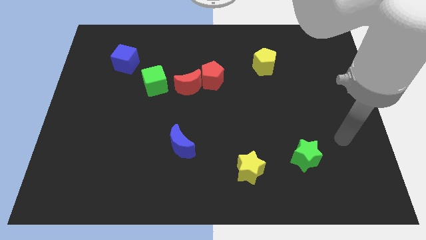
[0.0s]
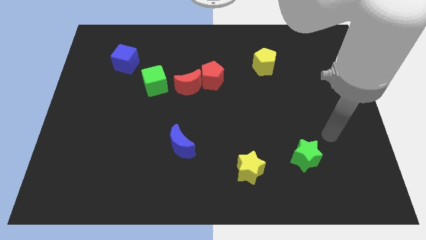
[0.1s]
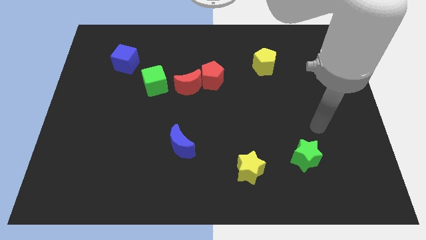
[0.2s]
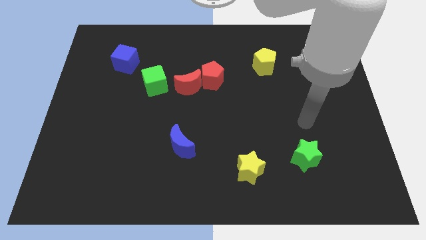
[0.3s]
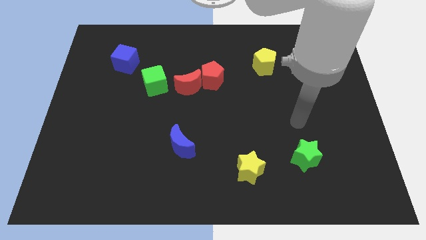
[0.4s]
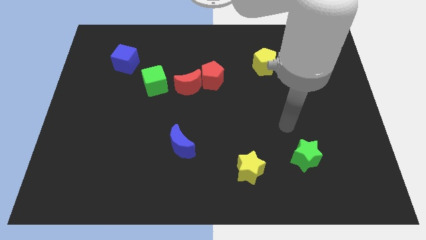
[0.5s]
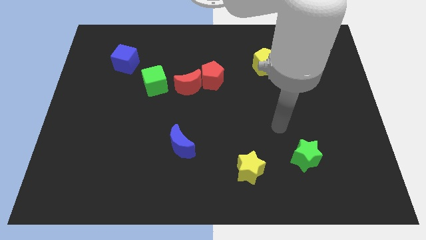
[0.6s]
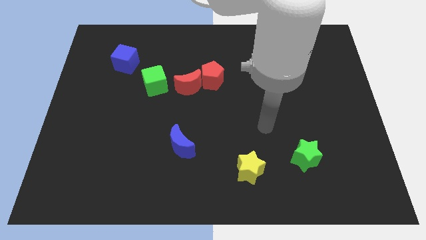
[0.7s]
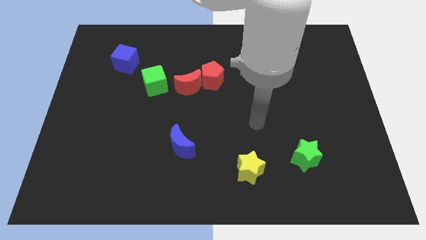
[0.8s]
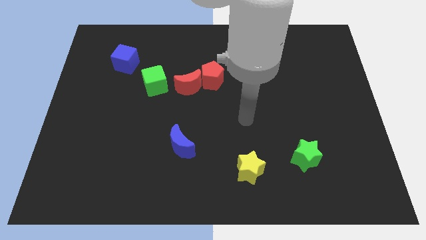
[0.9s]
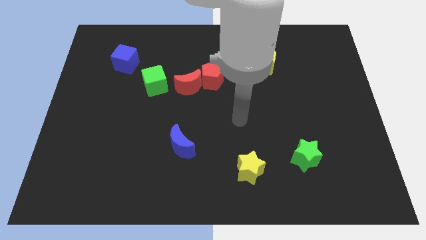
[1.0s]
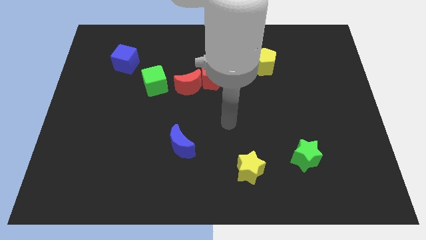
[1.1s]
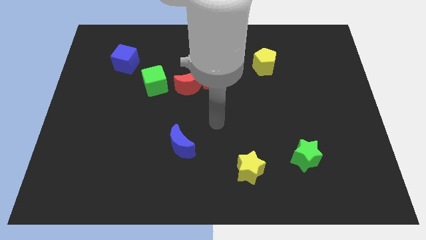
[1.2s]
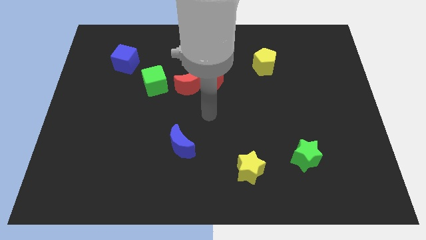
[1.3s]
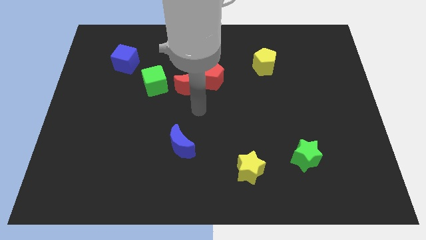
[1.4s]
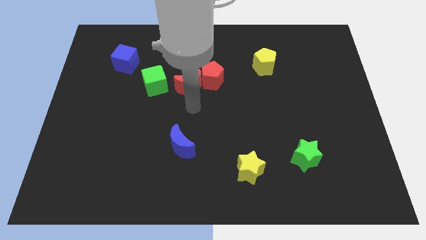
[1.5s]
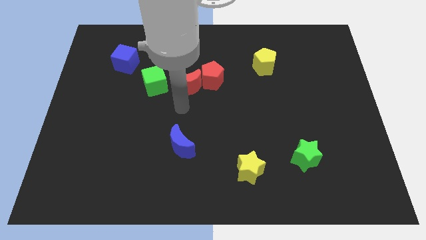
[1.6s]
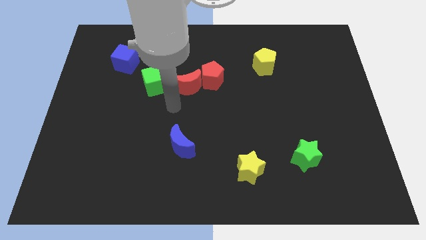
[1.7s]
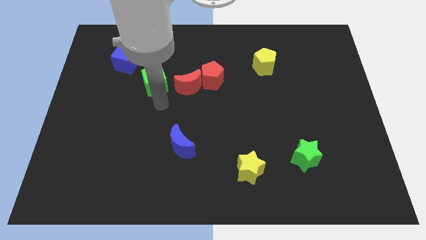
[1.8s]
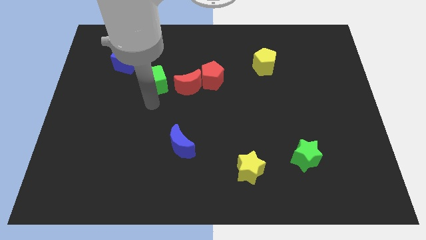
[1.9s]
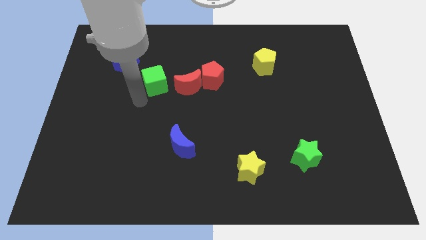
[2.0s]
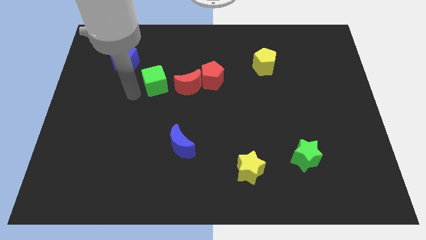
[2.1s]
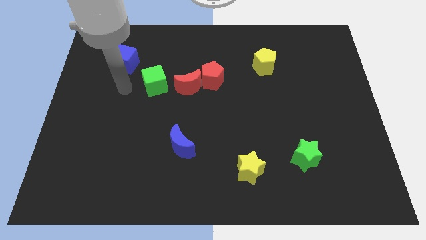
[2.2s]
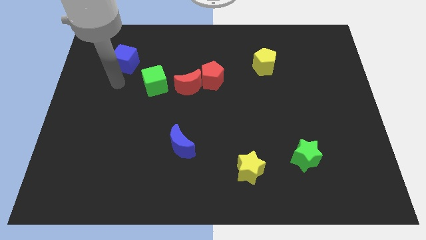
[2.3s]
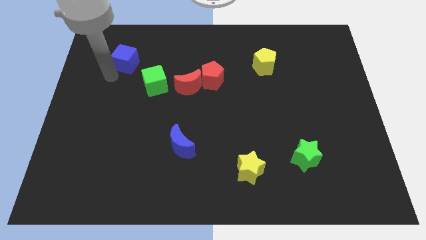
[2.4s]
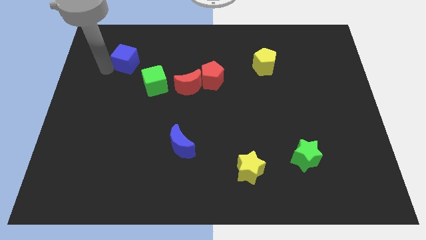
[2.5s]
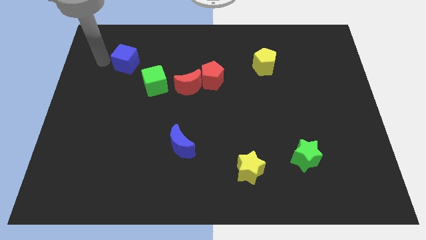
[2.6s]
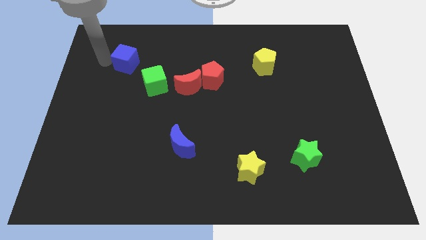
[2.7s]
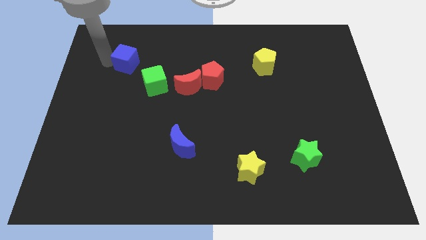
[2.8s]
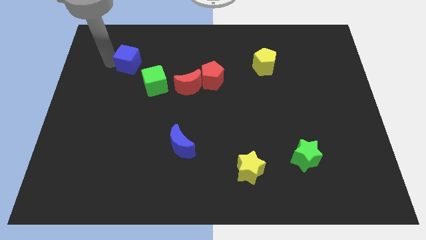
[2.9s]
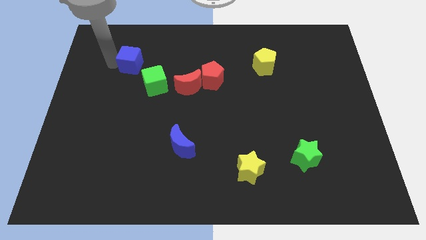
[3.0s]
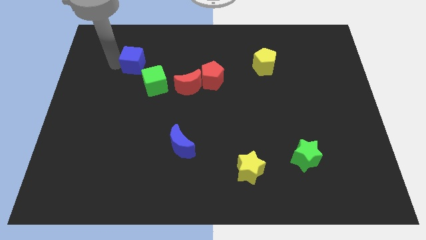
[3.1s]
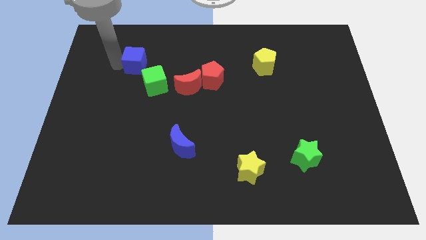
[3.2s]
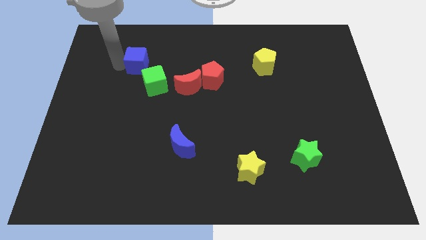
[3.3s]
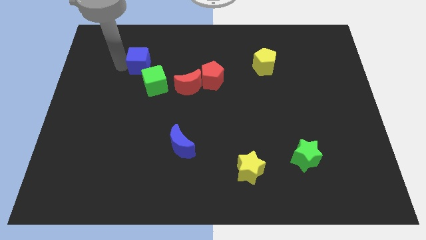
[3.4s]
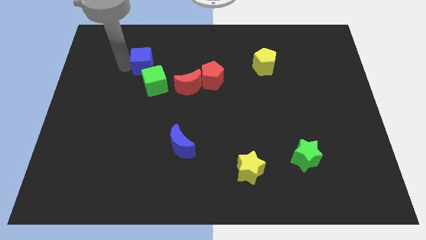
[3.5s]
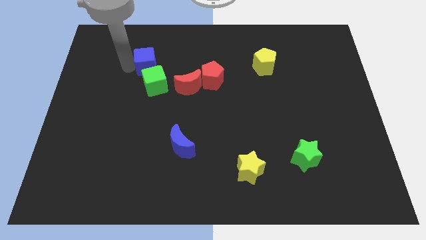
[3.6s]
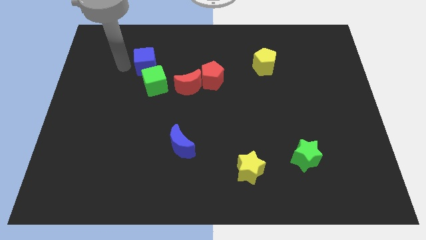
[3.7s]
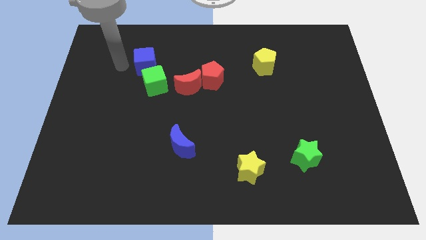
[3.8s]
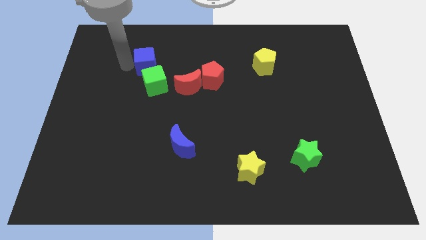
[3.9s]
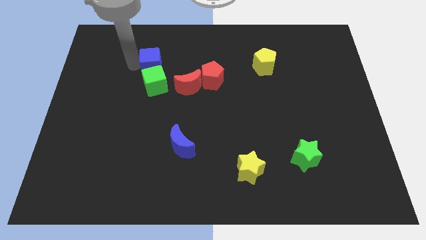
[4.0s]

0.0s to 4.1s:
slightly move the blue cube right

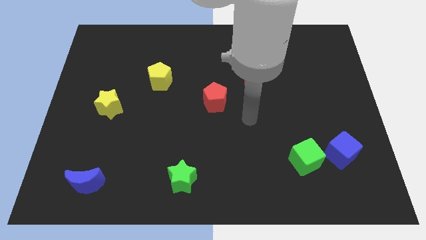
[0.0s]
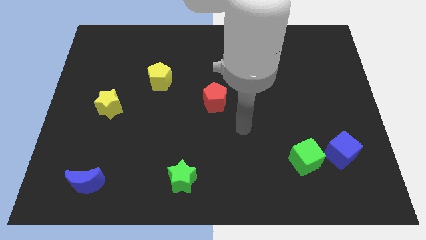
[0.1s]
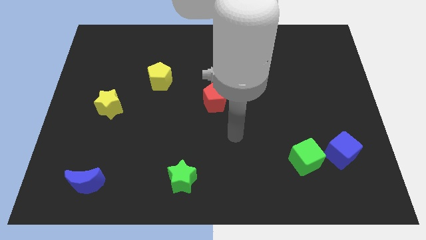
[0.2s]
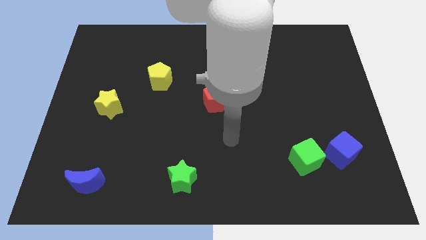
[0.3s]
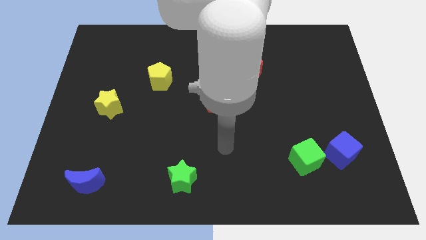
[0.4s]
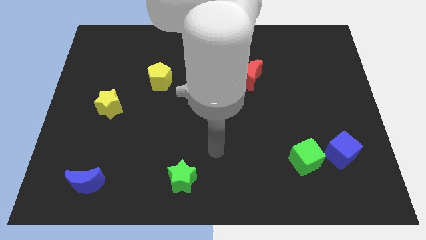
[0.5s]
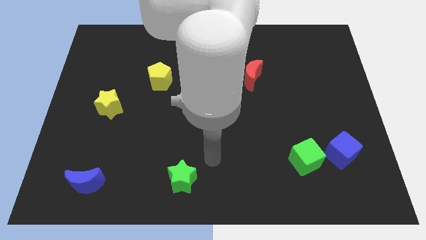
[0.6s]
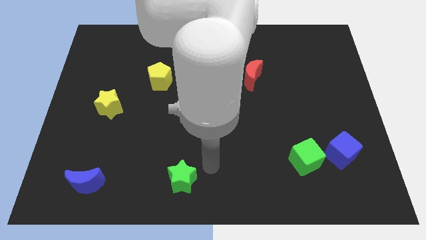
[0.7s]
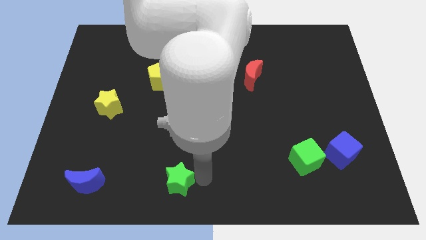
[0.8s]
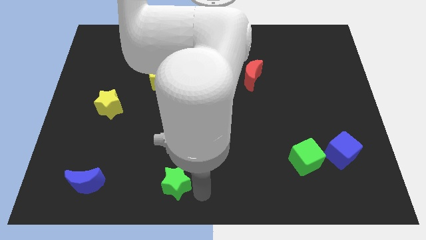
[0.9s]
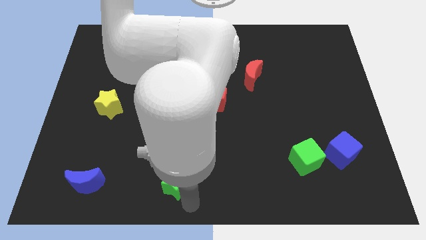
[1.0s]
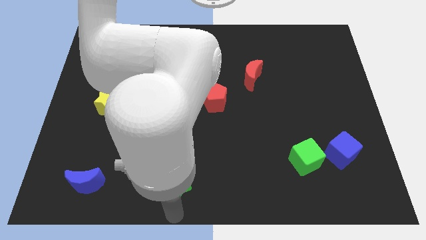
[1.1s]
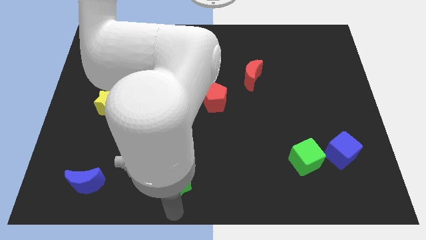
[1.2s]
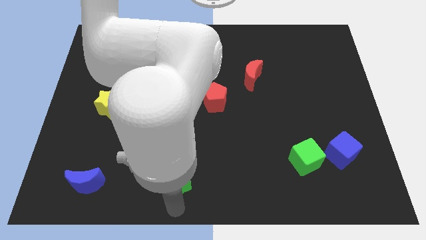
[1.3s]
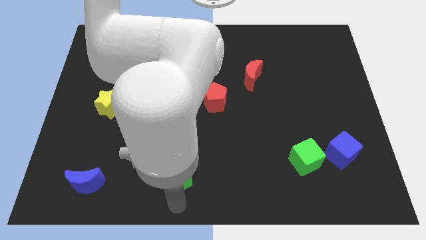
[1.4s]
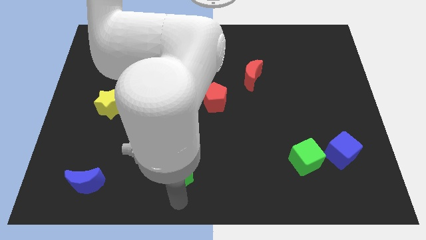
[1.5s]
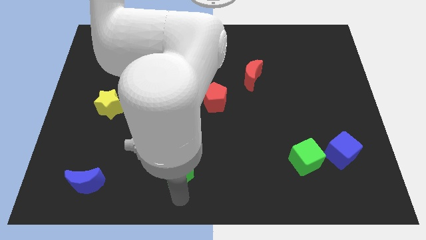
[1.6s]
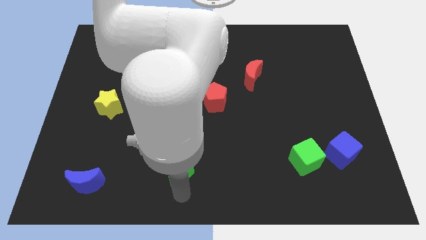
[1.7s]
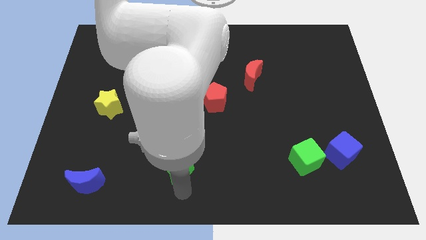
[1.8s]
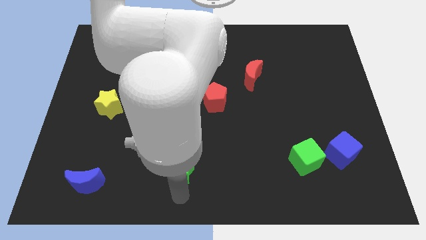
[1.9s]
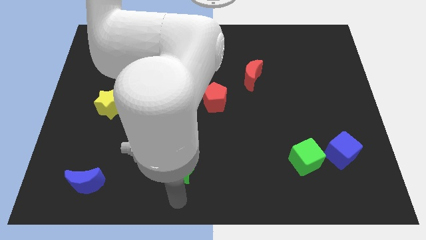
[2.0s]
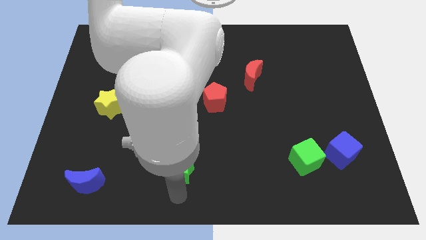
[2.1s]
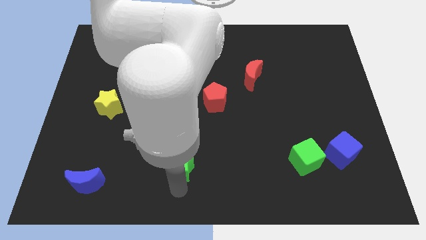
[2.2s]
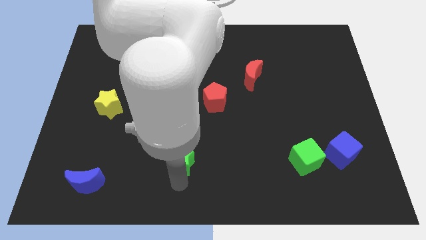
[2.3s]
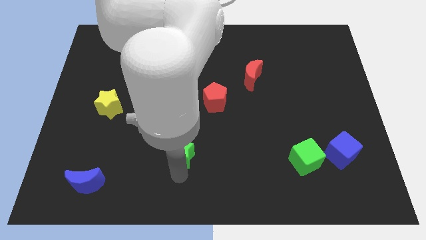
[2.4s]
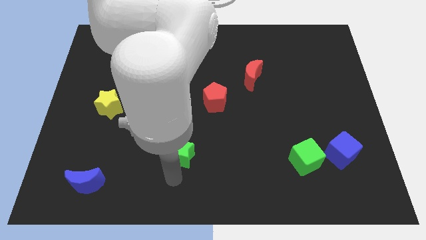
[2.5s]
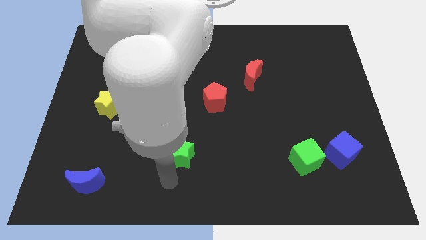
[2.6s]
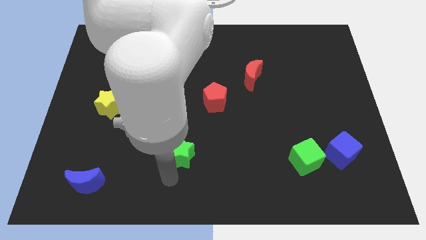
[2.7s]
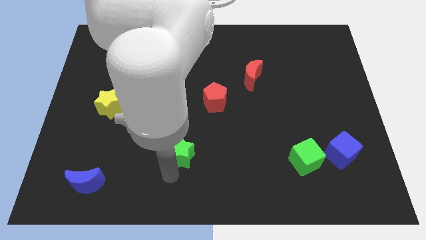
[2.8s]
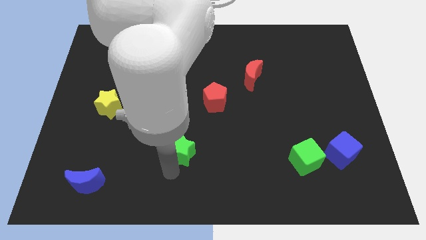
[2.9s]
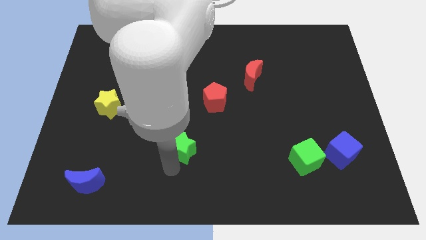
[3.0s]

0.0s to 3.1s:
slightly move the green star up

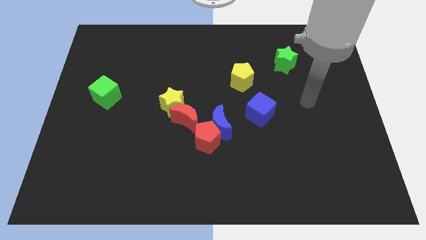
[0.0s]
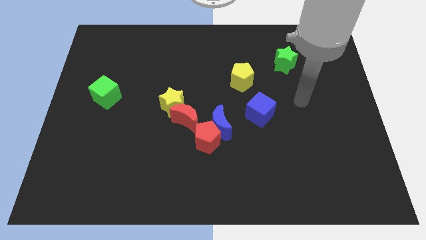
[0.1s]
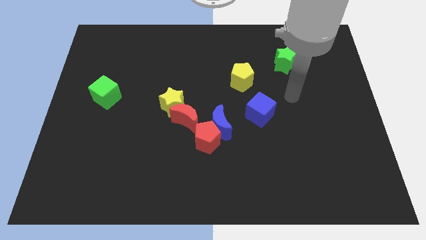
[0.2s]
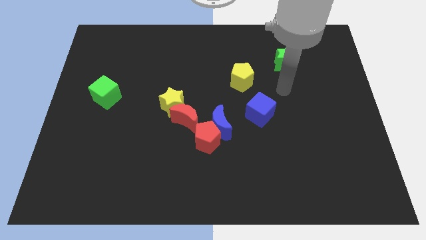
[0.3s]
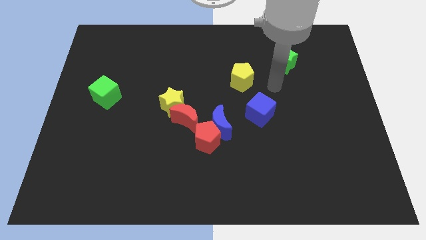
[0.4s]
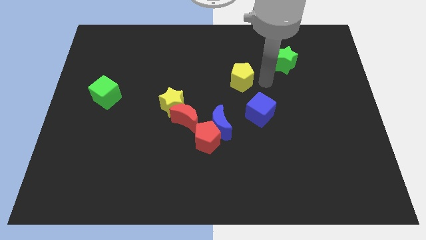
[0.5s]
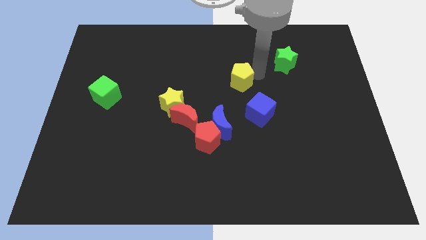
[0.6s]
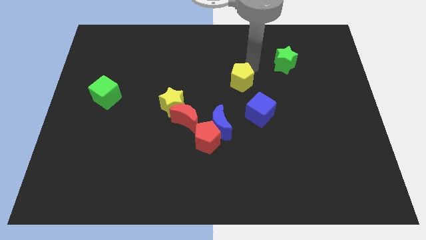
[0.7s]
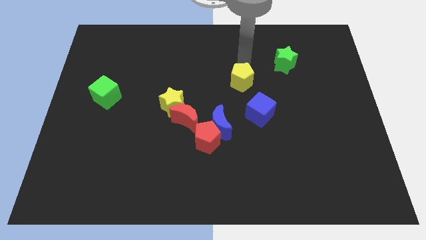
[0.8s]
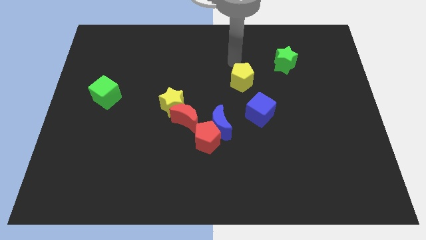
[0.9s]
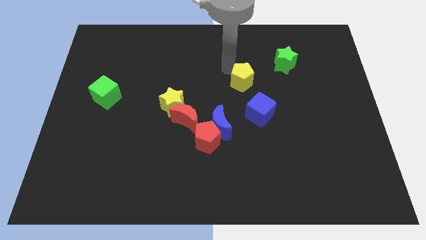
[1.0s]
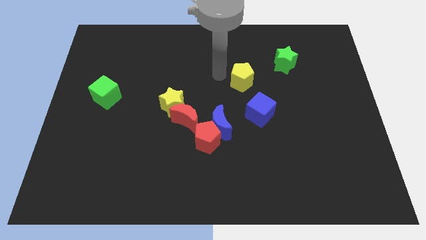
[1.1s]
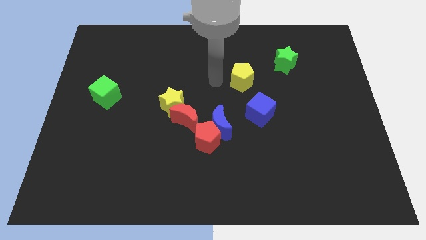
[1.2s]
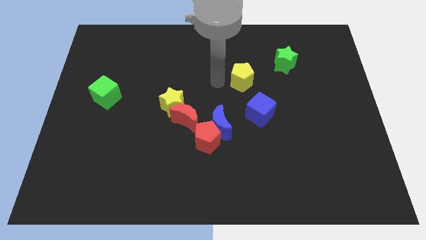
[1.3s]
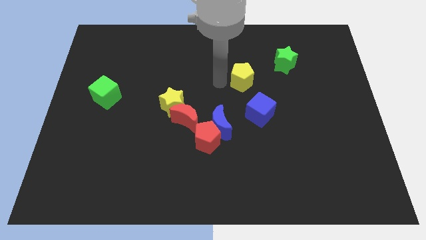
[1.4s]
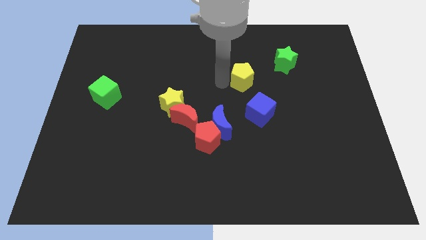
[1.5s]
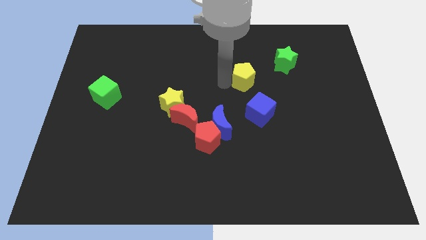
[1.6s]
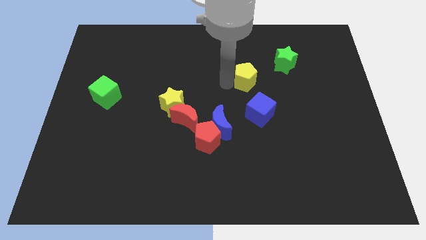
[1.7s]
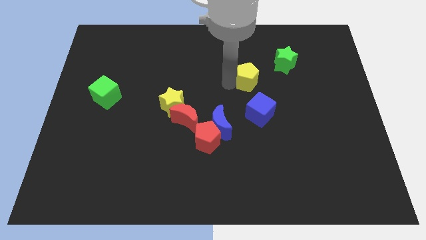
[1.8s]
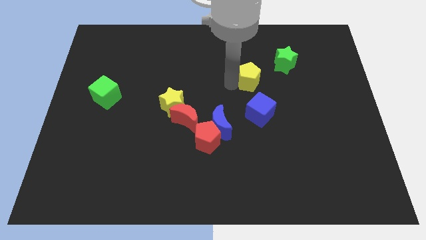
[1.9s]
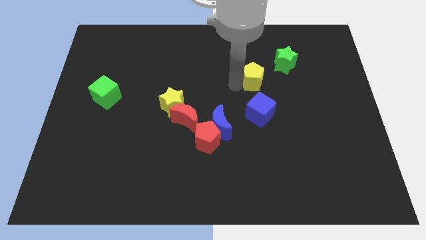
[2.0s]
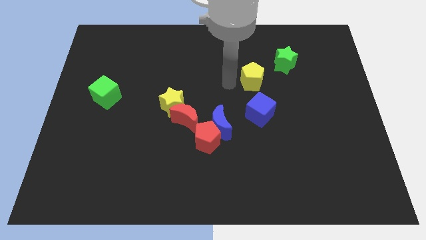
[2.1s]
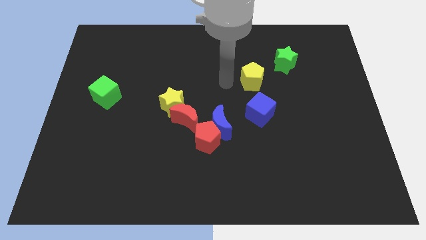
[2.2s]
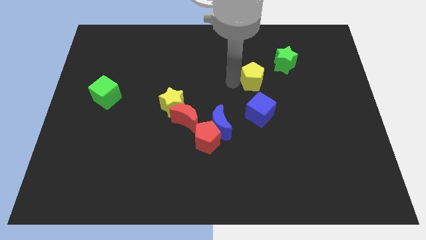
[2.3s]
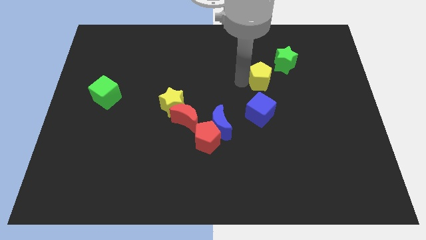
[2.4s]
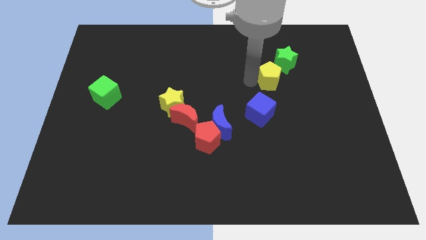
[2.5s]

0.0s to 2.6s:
slide the yellow pentagon right a little bit
